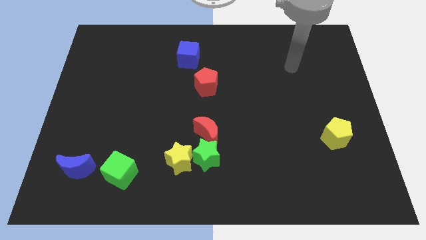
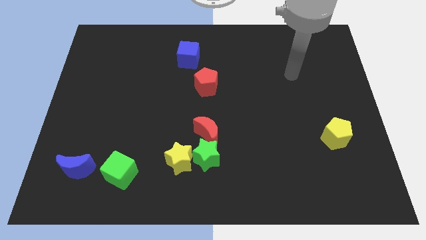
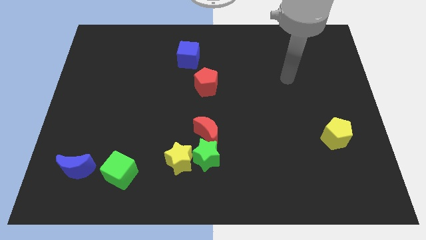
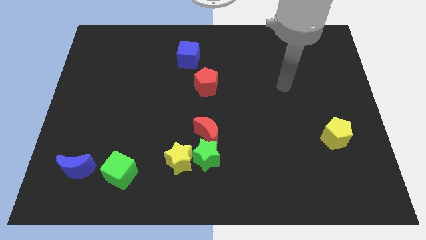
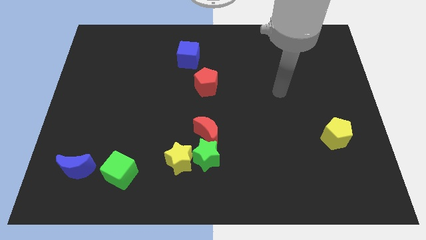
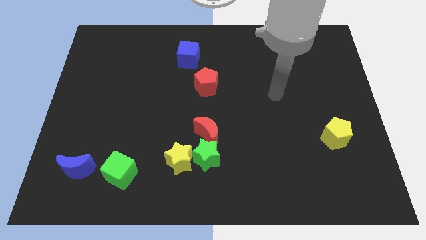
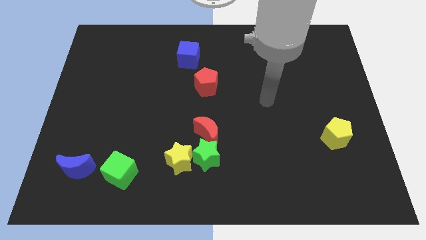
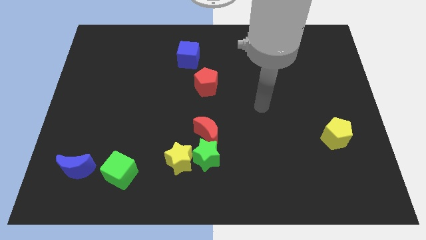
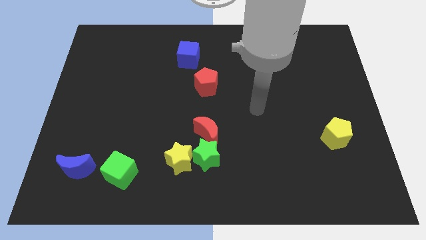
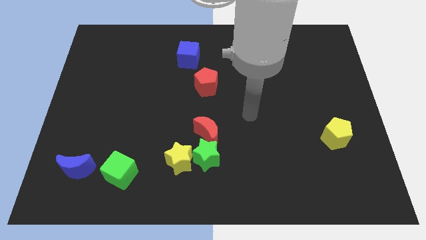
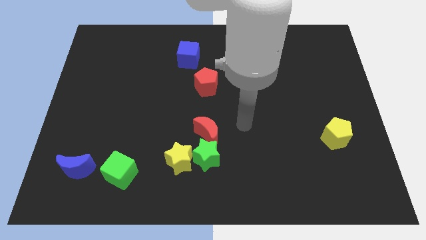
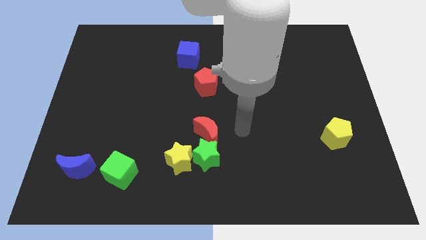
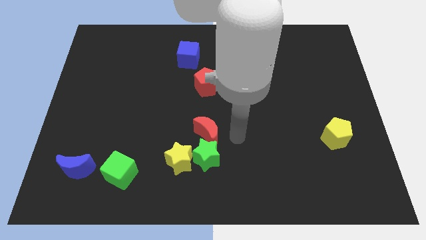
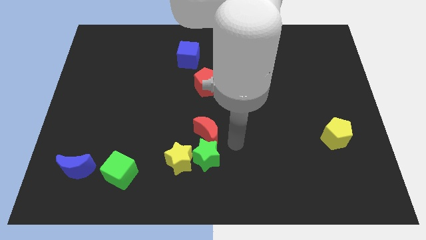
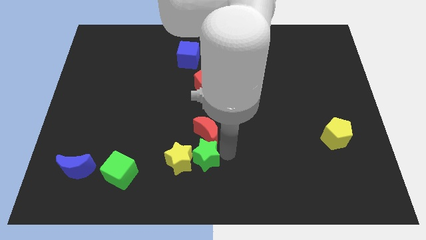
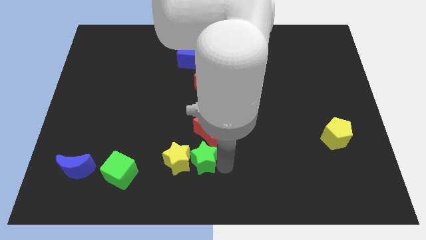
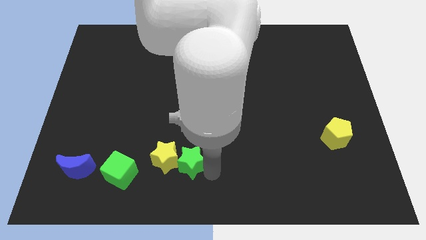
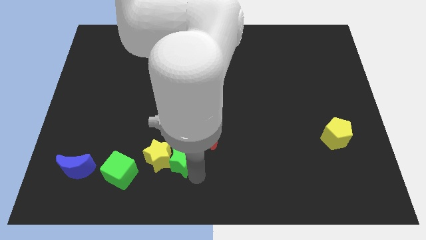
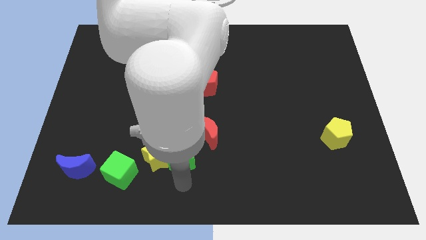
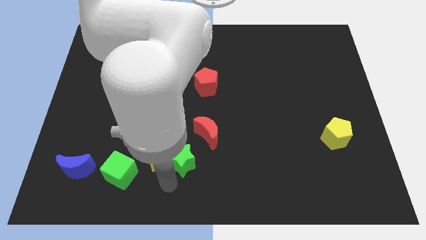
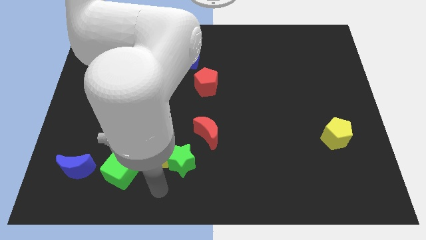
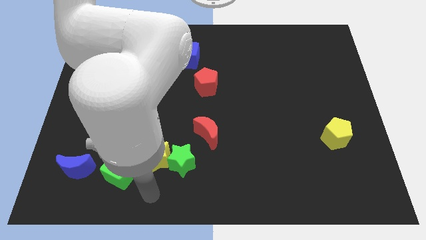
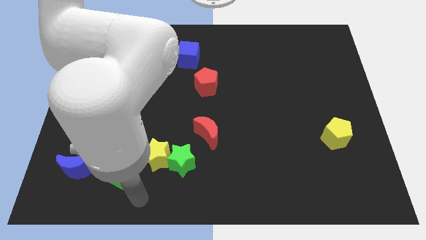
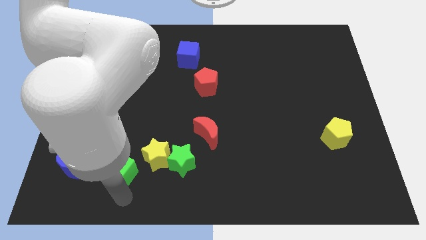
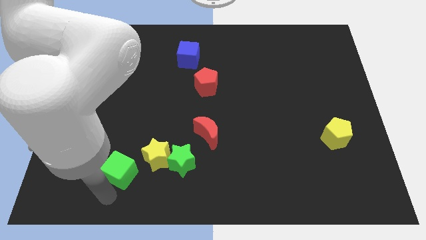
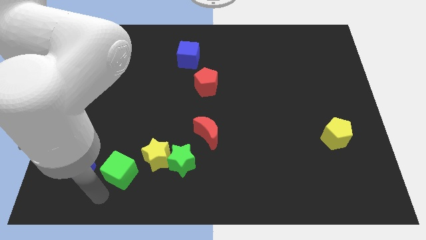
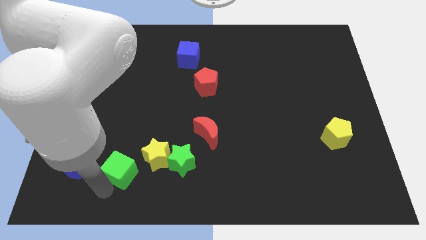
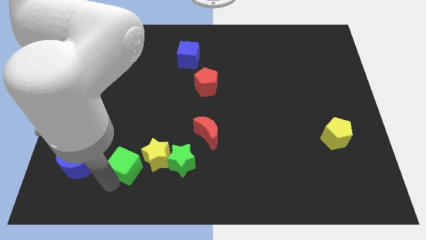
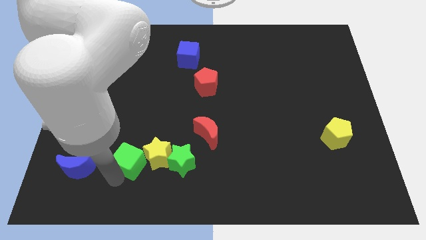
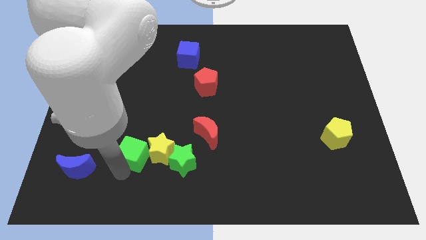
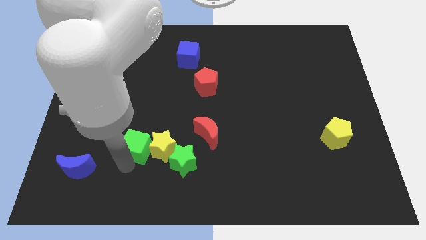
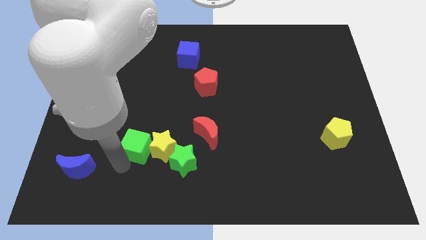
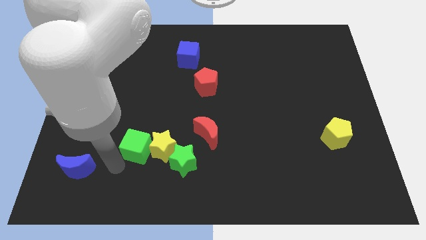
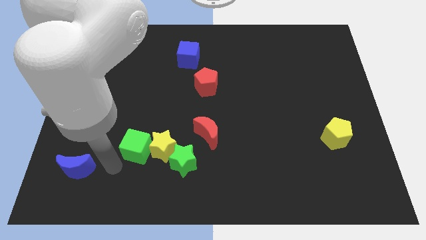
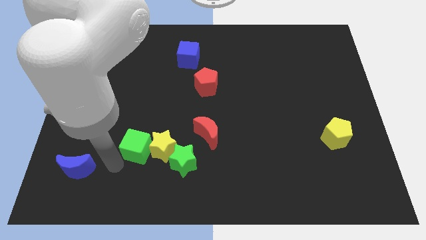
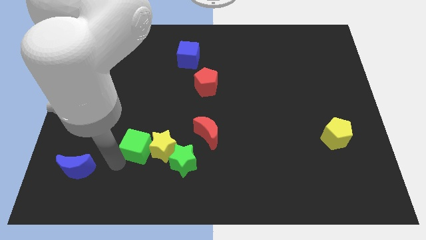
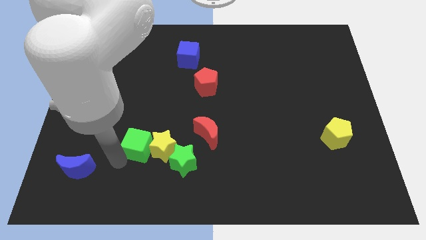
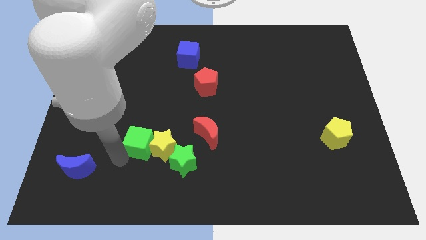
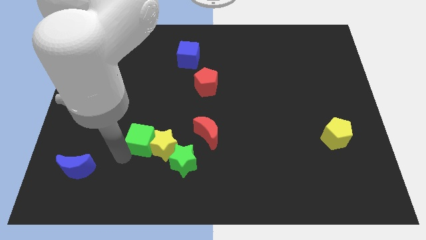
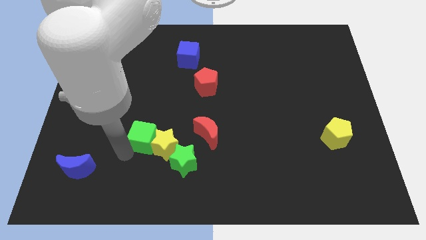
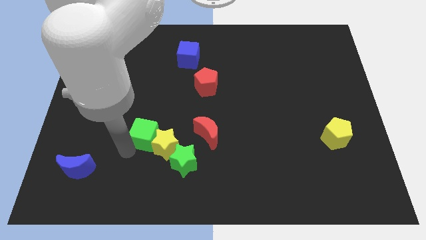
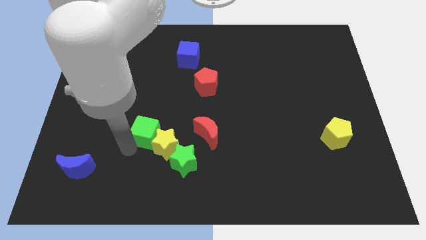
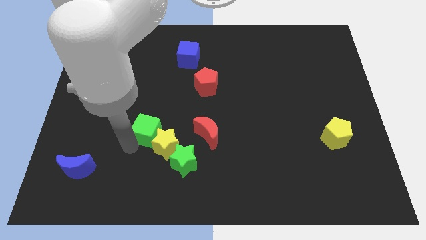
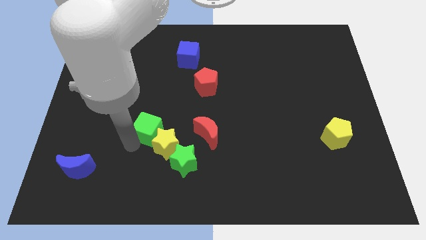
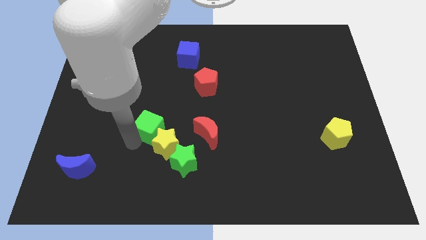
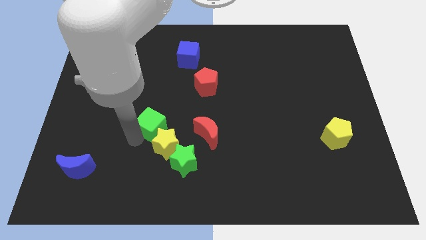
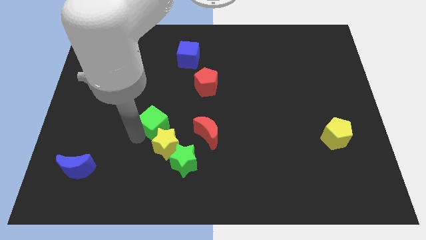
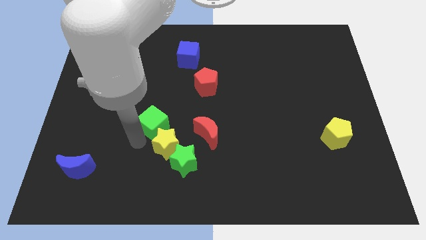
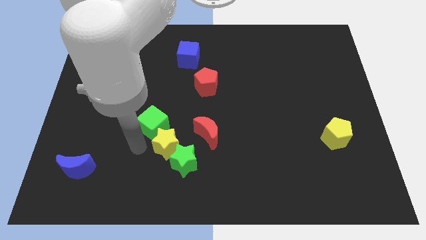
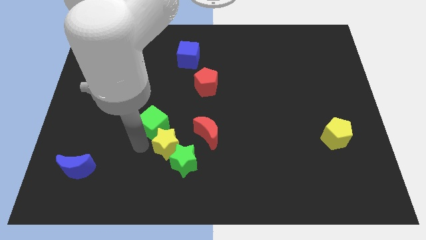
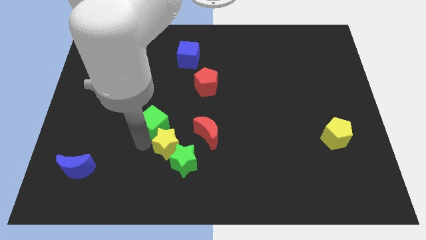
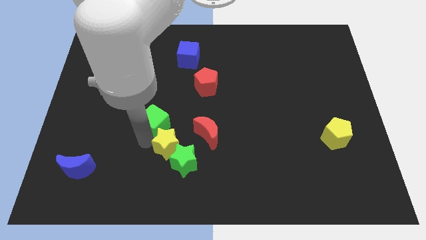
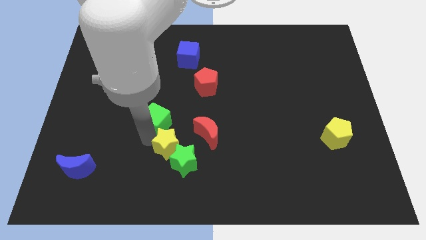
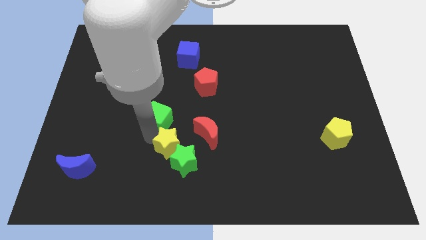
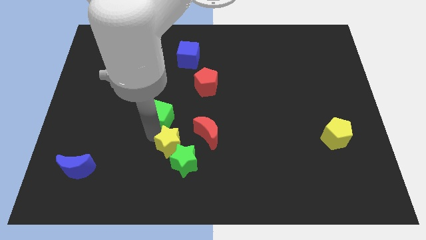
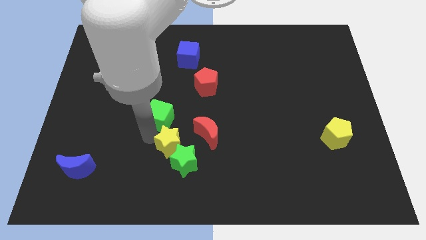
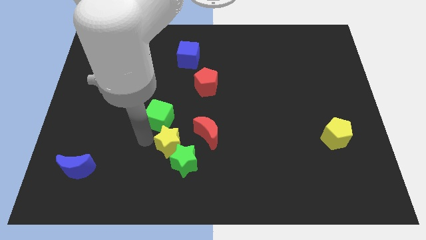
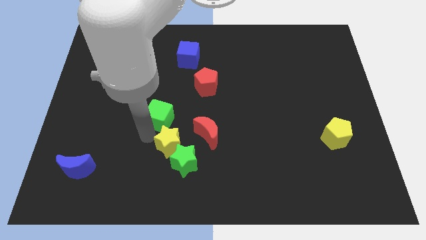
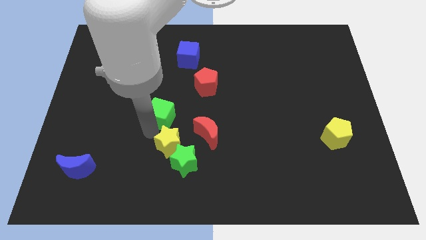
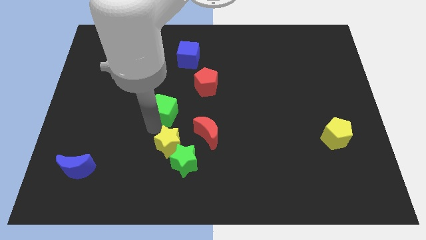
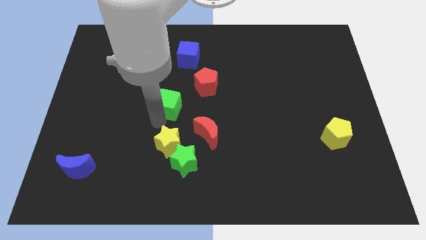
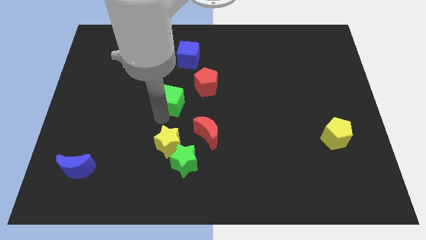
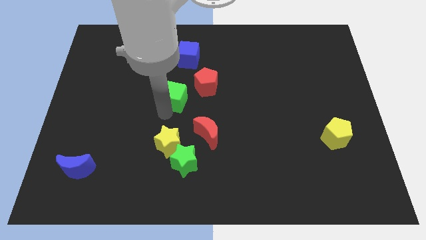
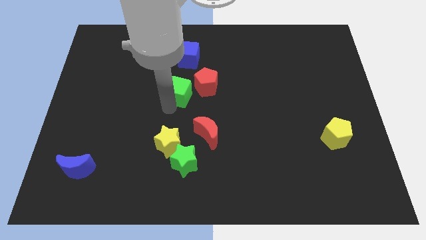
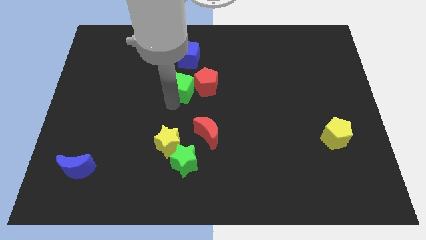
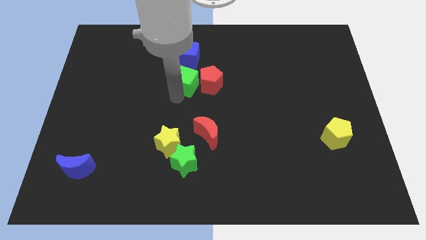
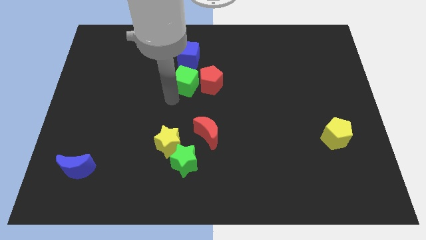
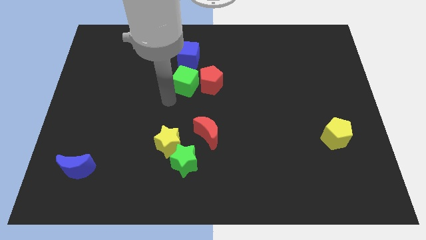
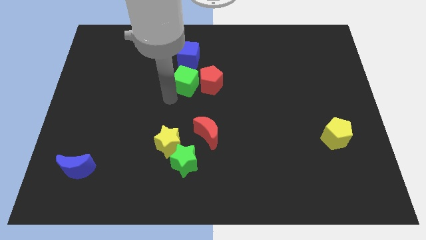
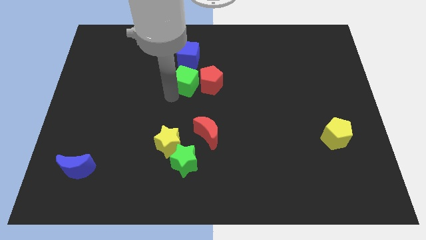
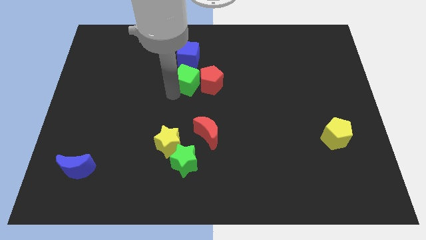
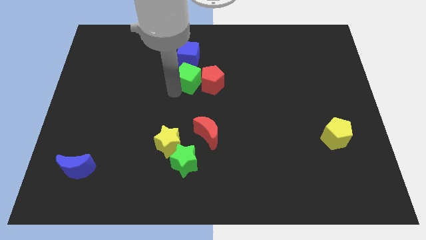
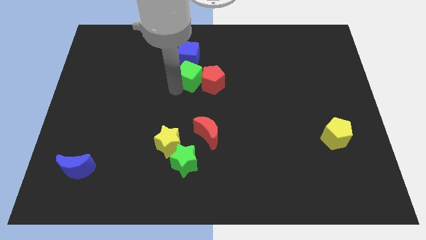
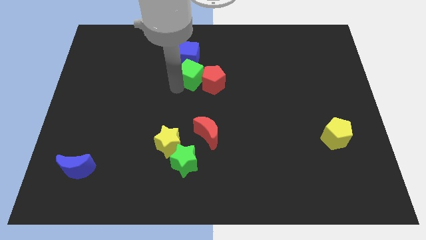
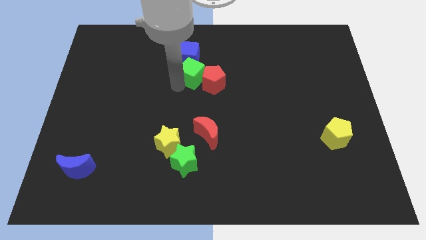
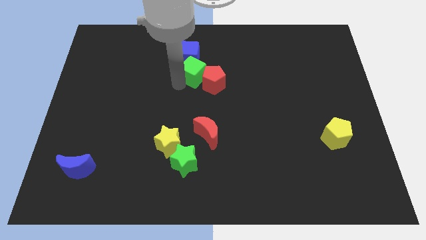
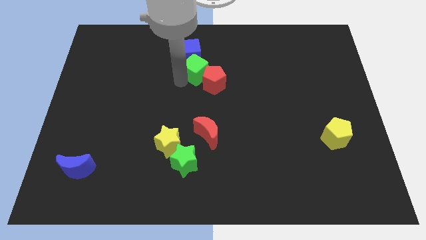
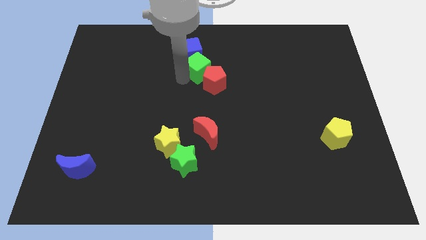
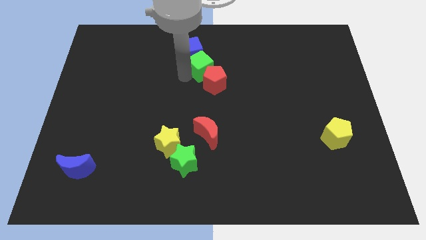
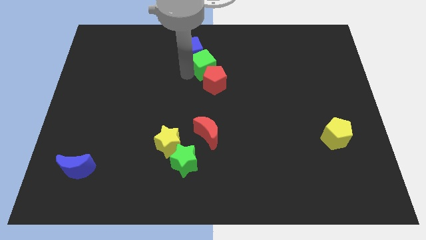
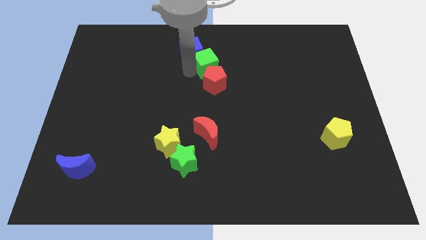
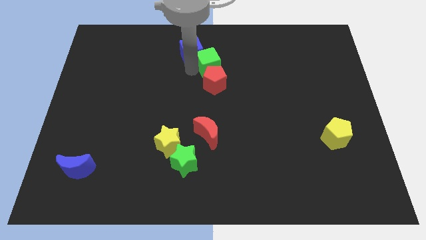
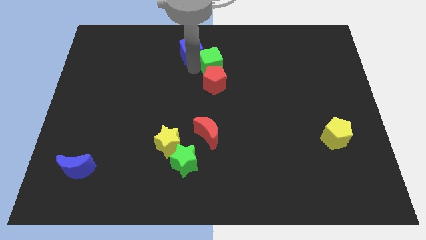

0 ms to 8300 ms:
put the green cube to the top right side of the red pentagon
